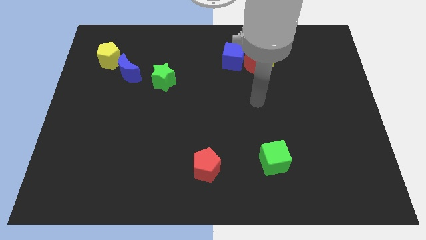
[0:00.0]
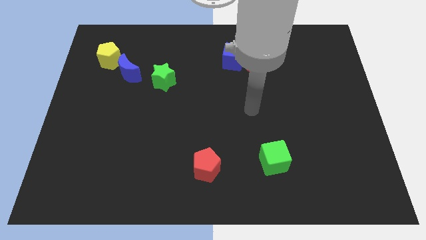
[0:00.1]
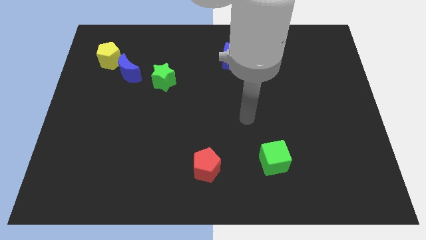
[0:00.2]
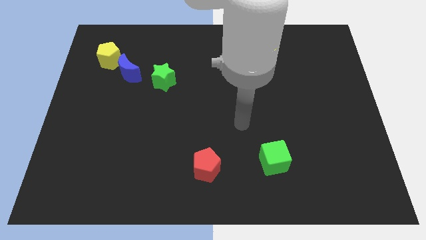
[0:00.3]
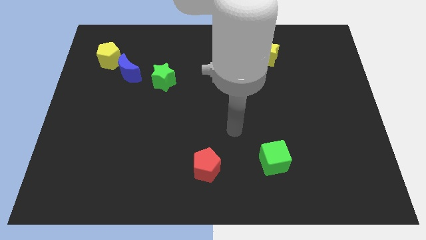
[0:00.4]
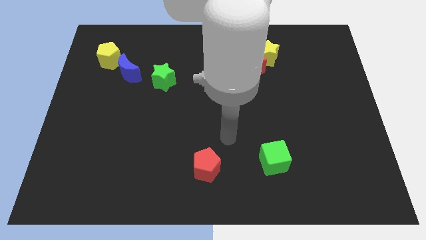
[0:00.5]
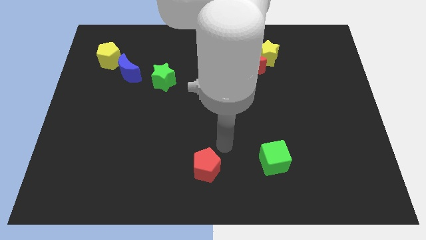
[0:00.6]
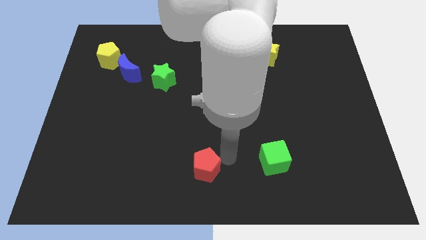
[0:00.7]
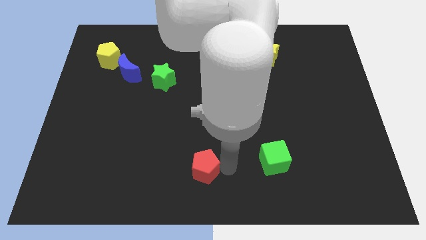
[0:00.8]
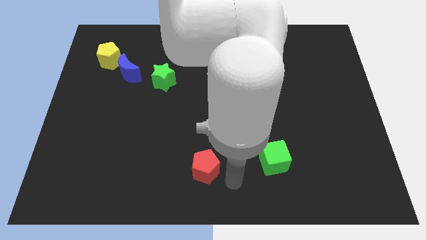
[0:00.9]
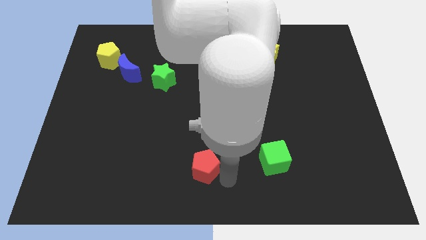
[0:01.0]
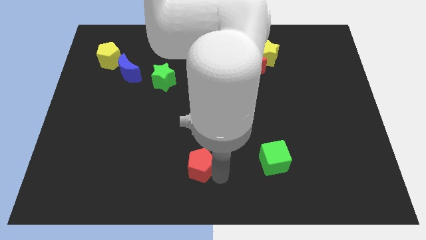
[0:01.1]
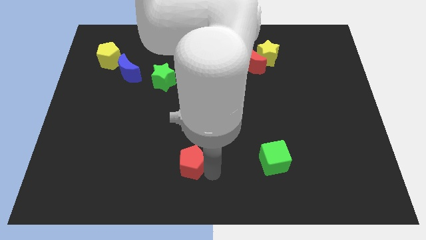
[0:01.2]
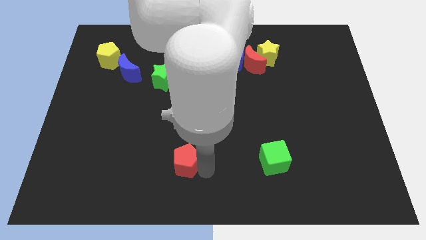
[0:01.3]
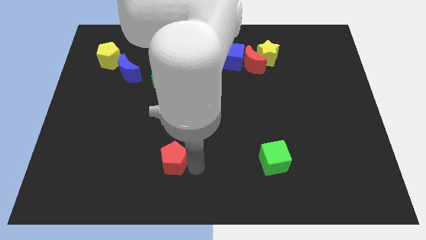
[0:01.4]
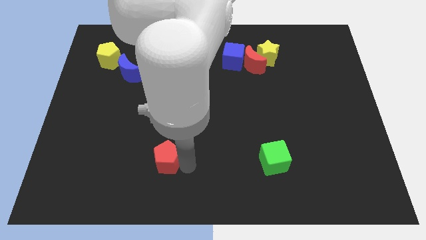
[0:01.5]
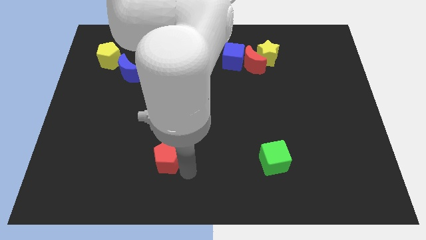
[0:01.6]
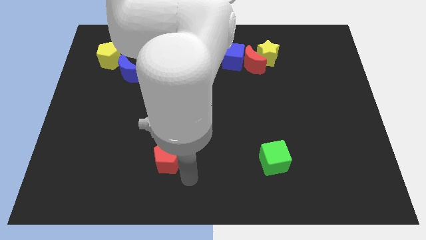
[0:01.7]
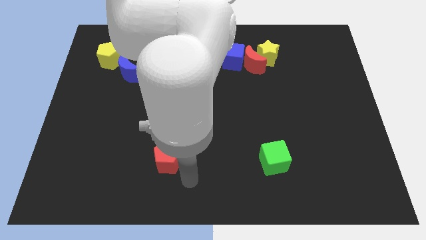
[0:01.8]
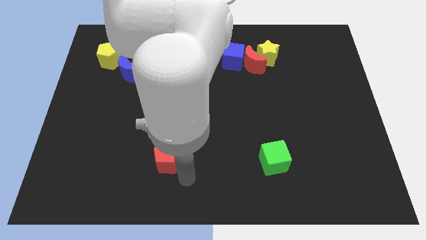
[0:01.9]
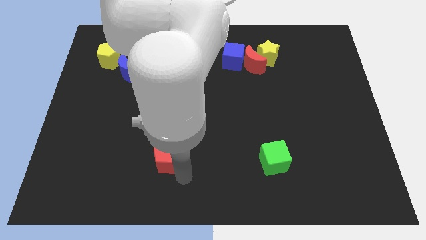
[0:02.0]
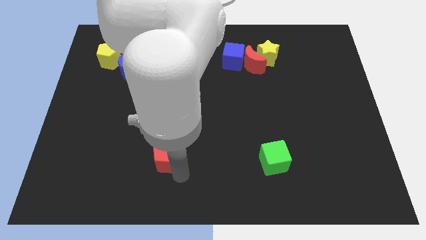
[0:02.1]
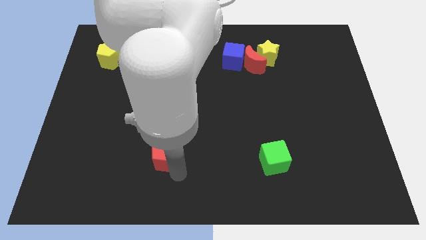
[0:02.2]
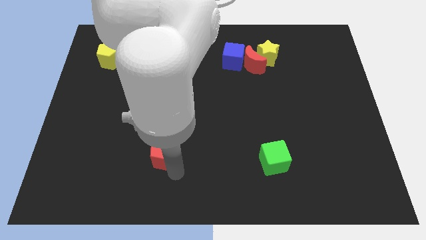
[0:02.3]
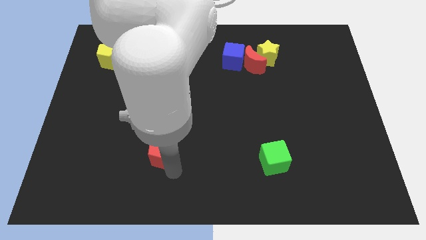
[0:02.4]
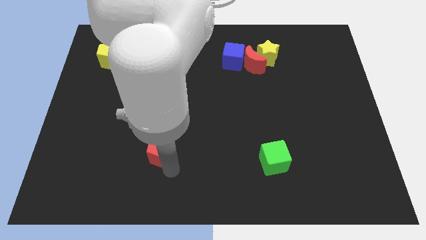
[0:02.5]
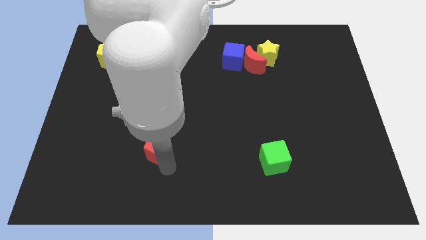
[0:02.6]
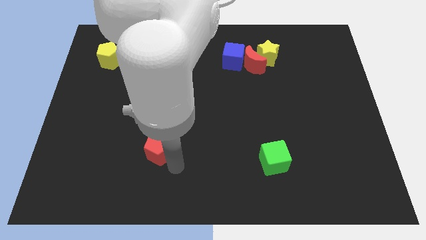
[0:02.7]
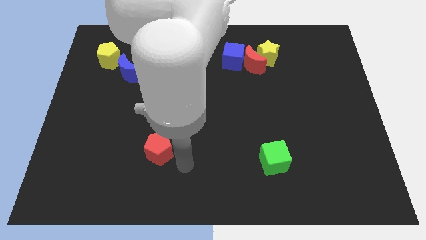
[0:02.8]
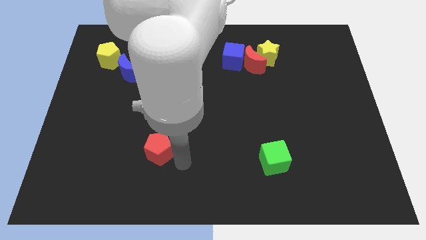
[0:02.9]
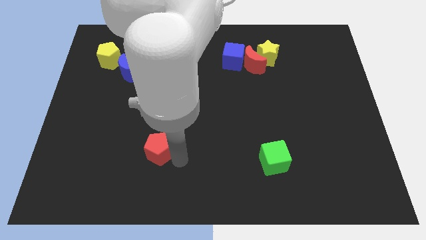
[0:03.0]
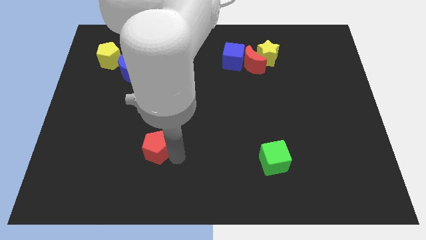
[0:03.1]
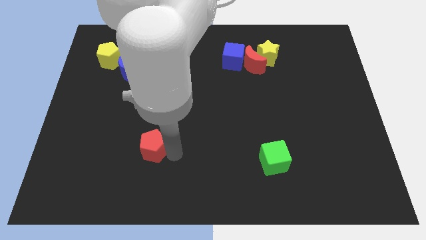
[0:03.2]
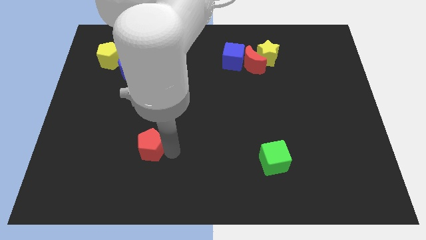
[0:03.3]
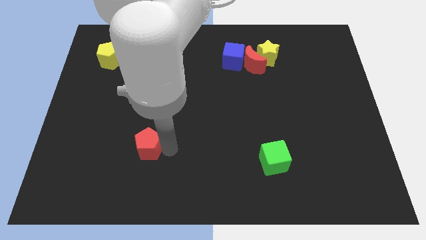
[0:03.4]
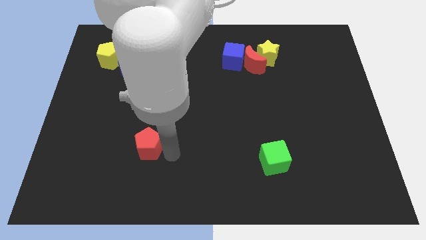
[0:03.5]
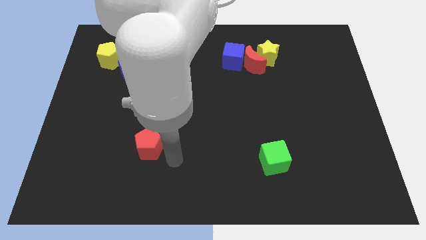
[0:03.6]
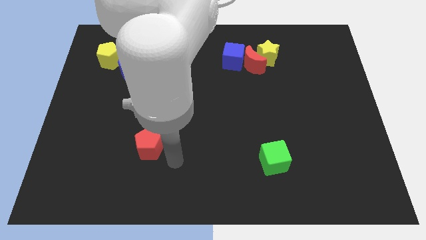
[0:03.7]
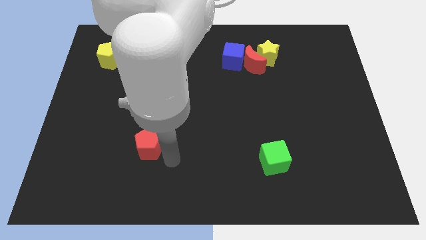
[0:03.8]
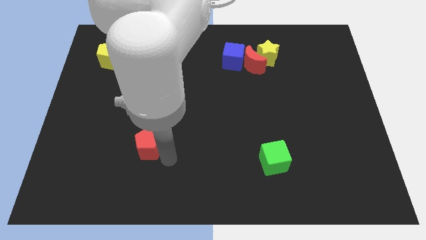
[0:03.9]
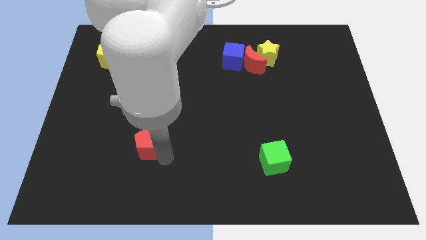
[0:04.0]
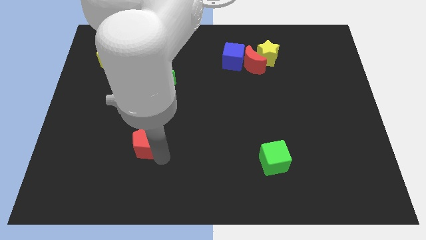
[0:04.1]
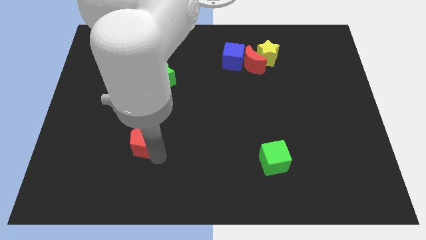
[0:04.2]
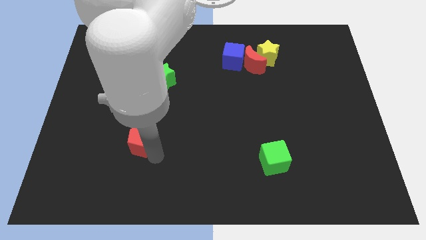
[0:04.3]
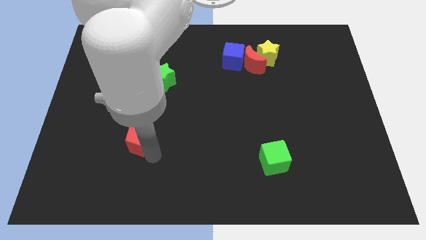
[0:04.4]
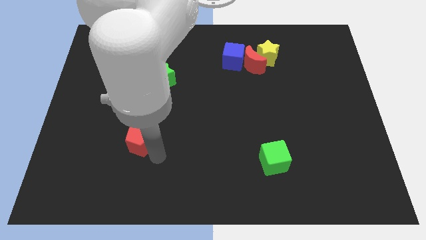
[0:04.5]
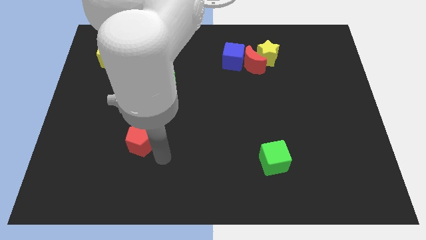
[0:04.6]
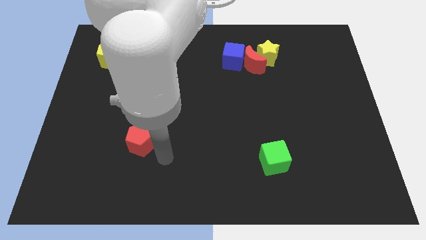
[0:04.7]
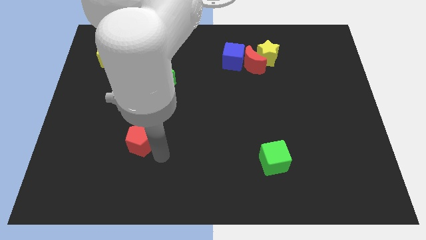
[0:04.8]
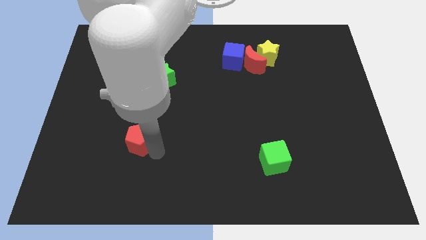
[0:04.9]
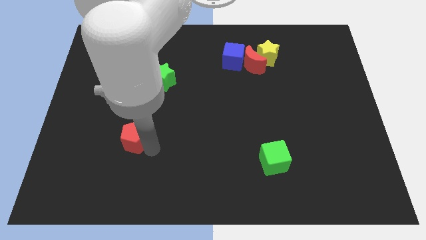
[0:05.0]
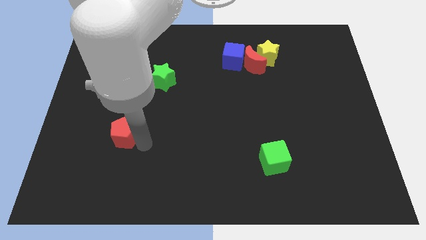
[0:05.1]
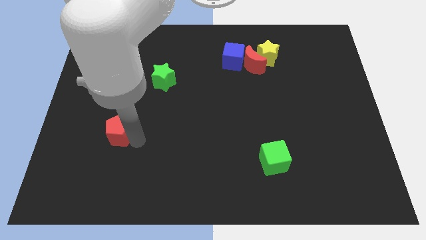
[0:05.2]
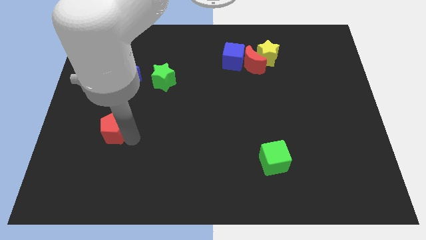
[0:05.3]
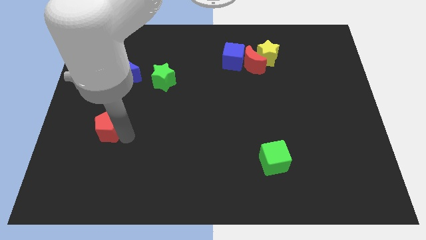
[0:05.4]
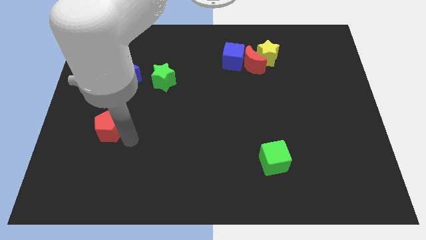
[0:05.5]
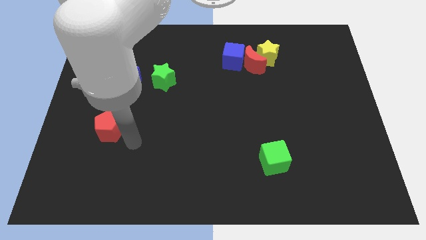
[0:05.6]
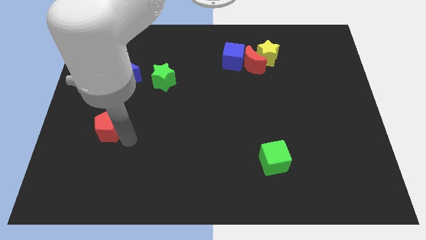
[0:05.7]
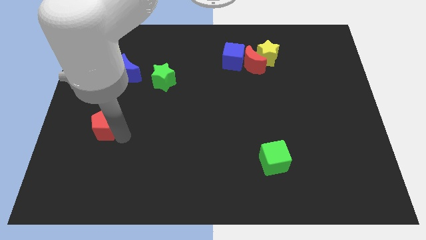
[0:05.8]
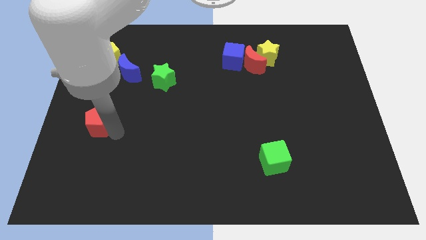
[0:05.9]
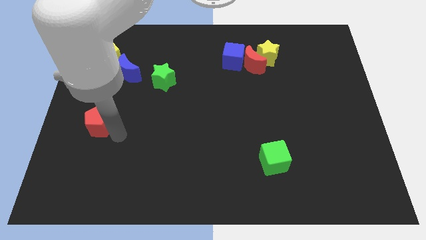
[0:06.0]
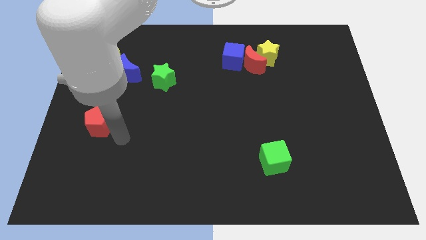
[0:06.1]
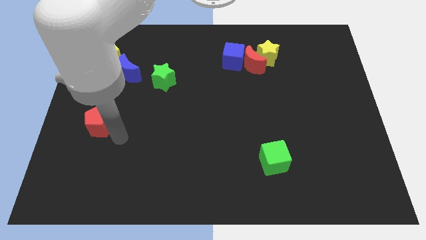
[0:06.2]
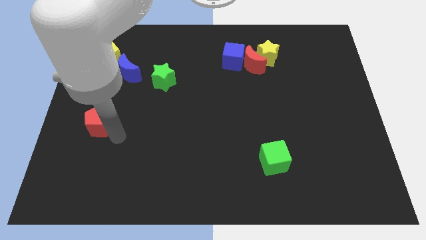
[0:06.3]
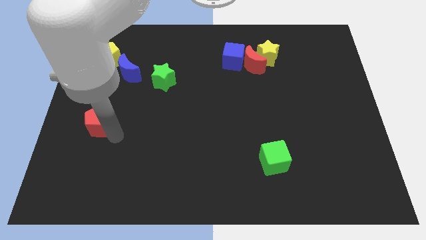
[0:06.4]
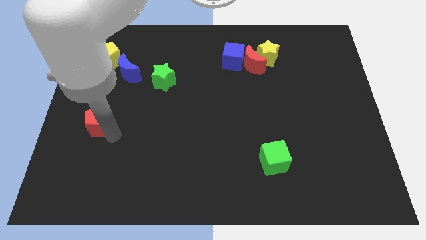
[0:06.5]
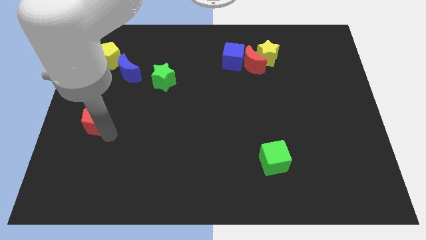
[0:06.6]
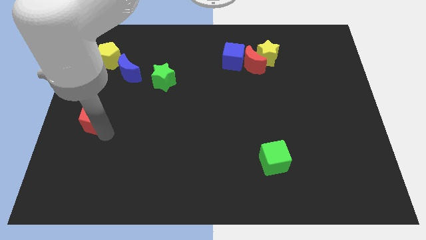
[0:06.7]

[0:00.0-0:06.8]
slide the red pentagon to the center left
